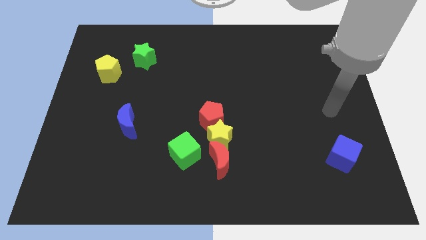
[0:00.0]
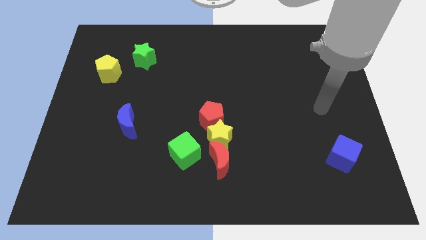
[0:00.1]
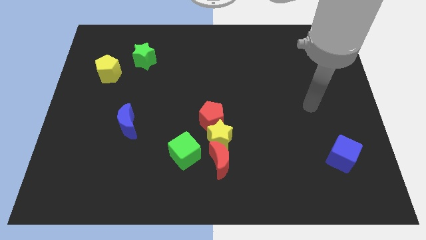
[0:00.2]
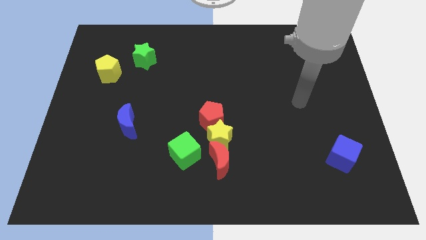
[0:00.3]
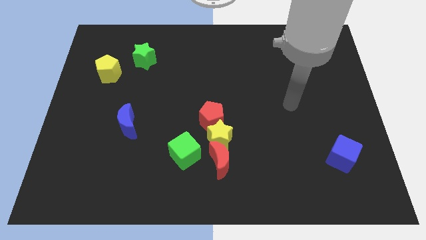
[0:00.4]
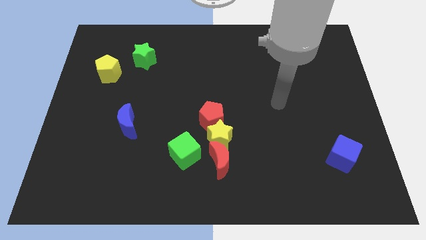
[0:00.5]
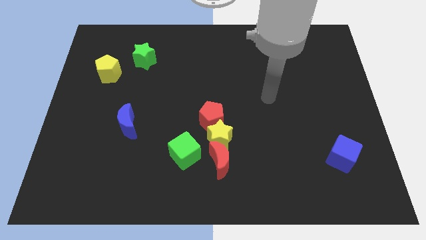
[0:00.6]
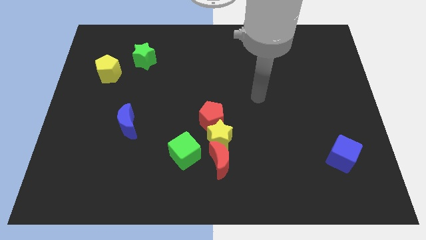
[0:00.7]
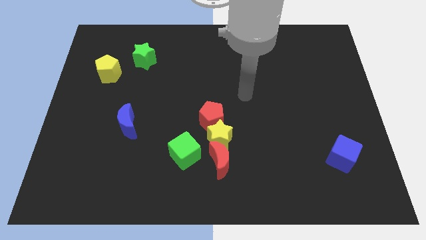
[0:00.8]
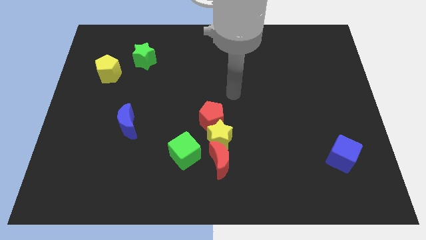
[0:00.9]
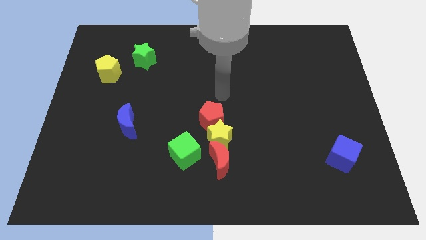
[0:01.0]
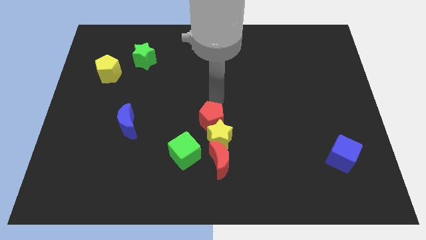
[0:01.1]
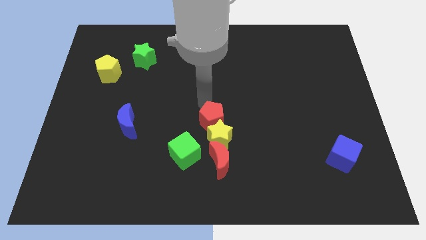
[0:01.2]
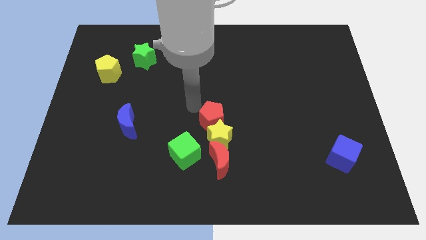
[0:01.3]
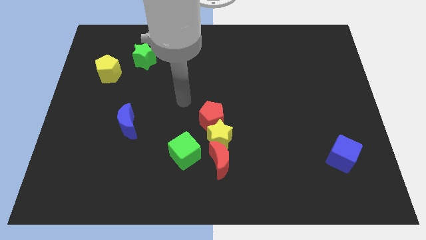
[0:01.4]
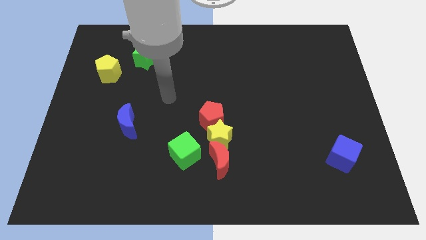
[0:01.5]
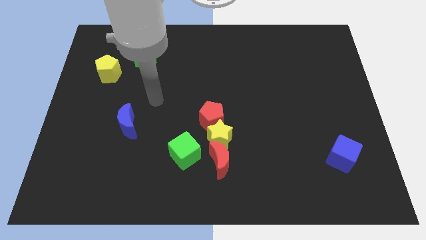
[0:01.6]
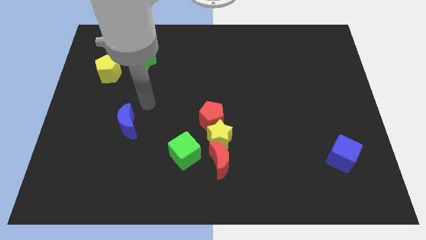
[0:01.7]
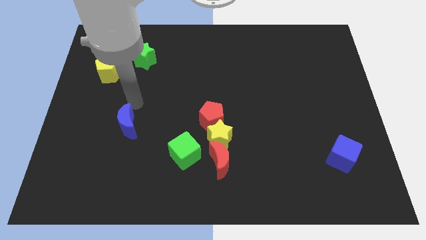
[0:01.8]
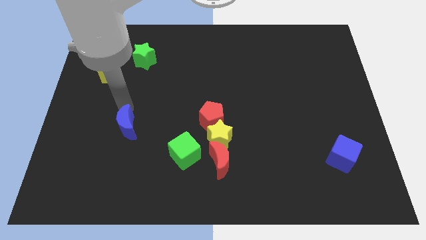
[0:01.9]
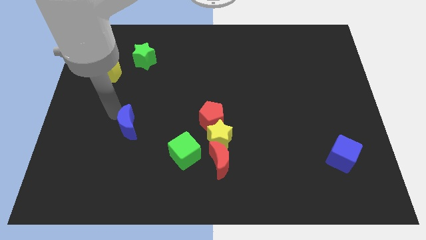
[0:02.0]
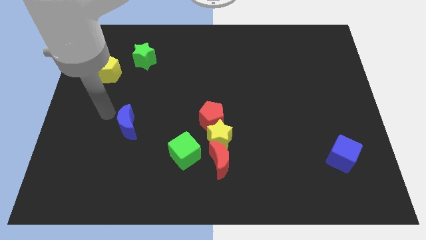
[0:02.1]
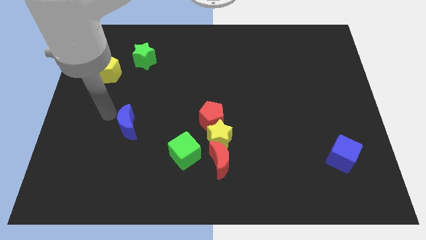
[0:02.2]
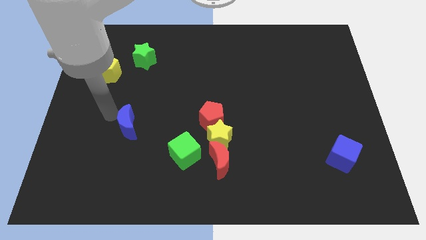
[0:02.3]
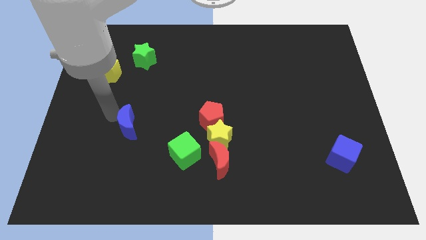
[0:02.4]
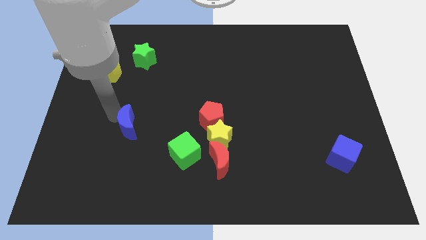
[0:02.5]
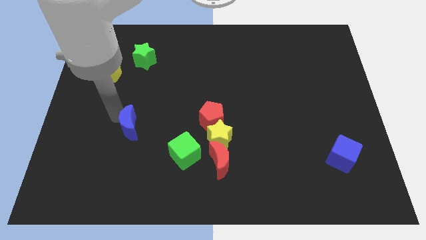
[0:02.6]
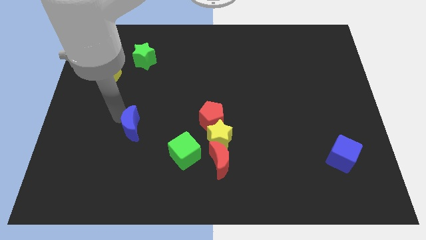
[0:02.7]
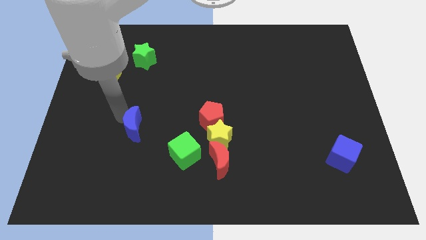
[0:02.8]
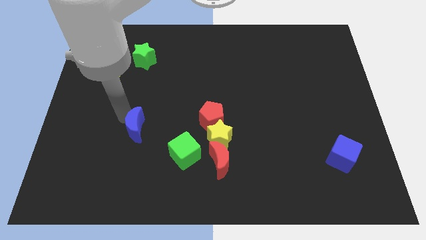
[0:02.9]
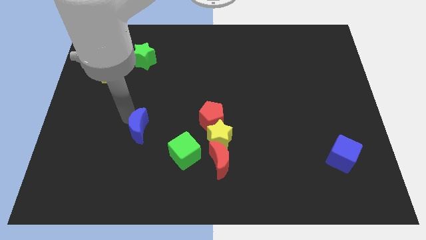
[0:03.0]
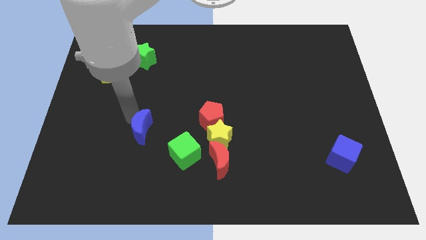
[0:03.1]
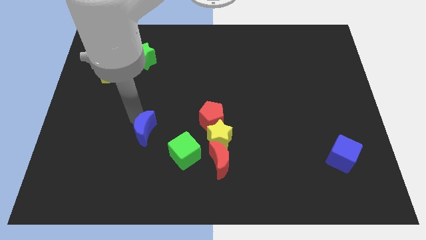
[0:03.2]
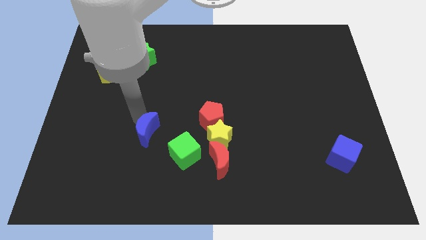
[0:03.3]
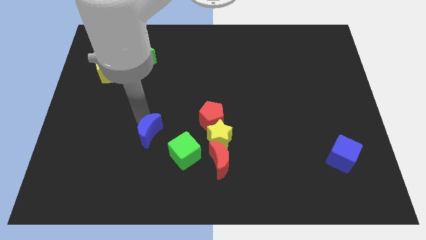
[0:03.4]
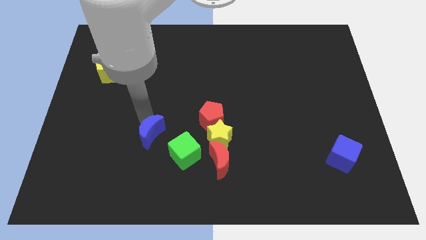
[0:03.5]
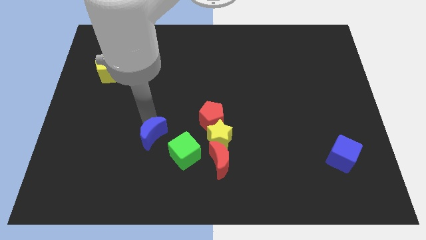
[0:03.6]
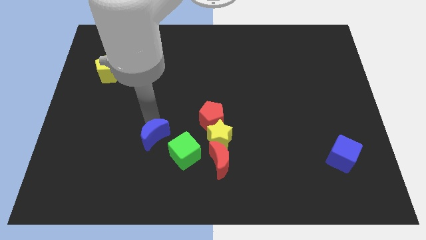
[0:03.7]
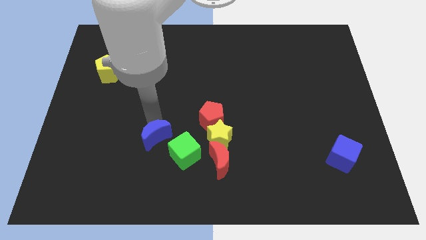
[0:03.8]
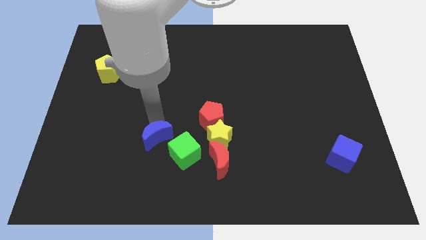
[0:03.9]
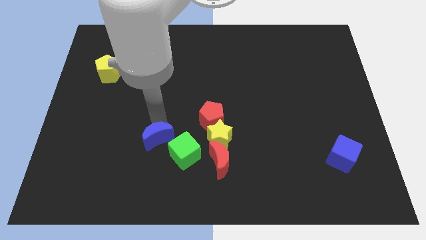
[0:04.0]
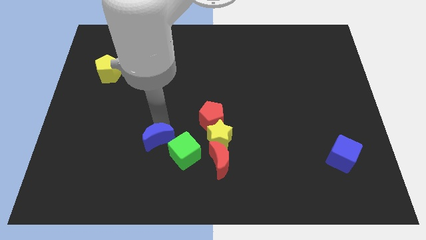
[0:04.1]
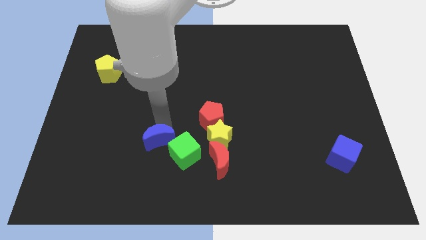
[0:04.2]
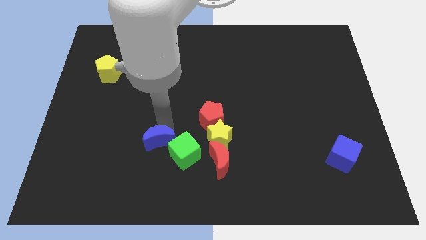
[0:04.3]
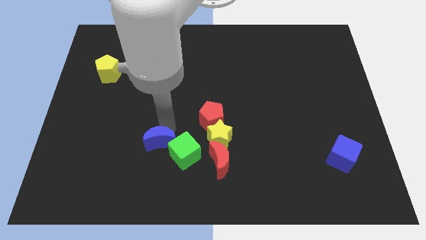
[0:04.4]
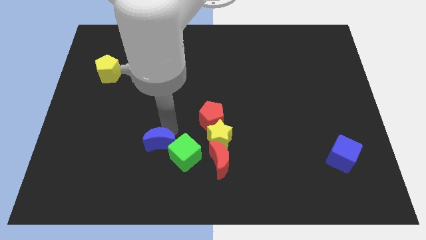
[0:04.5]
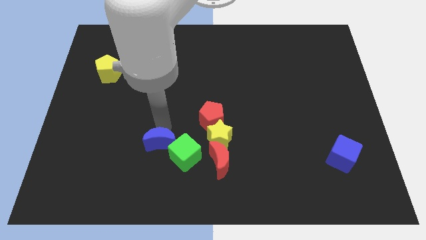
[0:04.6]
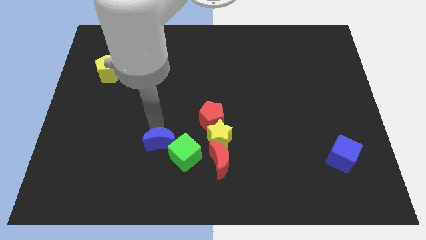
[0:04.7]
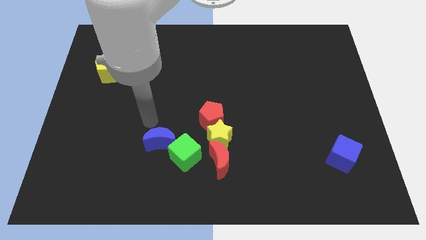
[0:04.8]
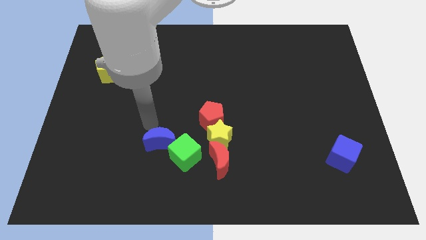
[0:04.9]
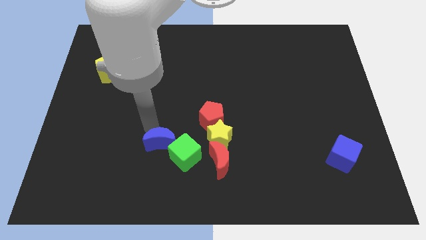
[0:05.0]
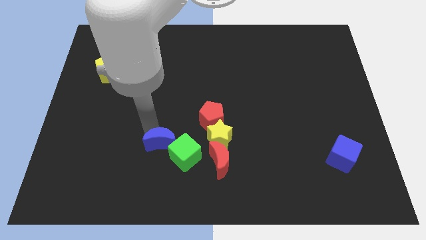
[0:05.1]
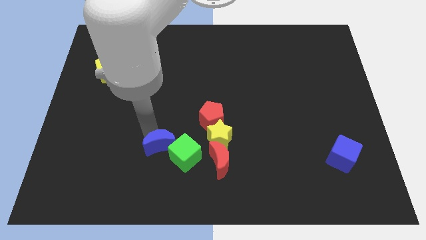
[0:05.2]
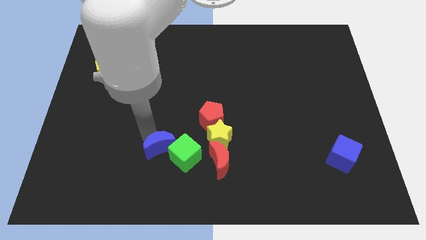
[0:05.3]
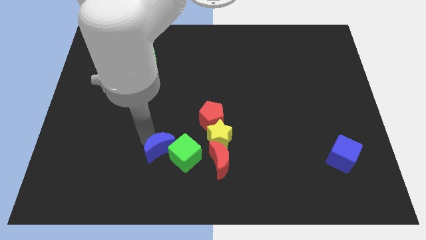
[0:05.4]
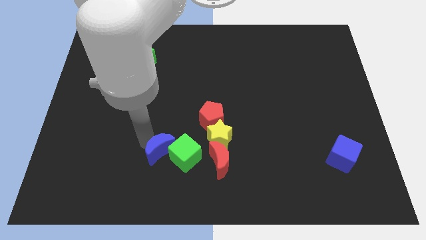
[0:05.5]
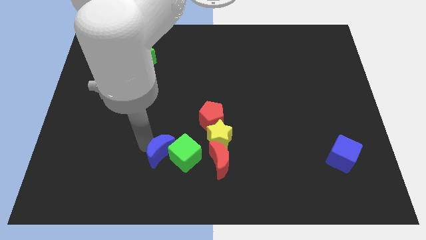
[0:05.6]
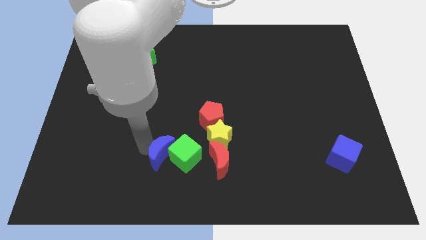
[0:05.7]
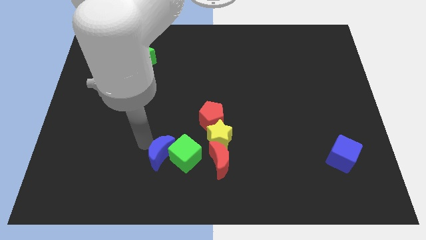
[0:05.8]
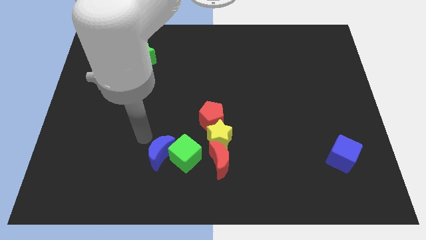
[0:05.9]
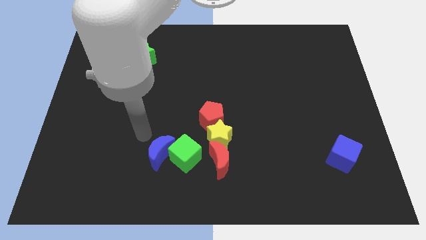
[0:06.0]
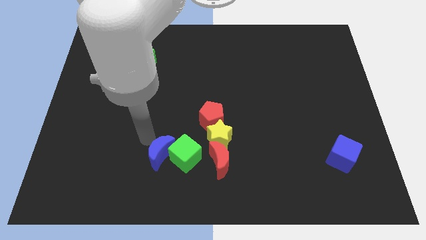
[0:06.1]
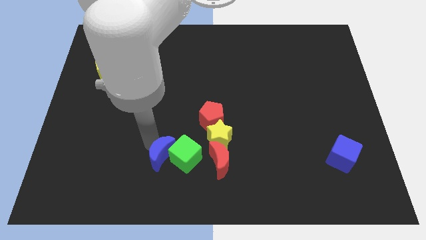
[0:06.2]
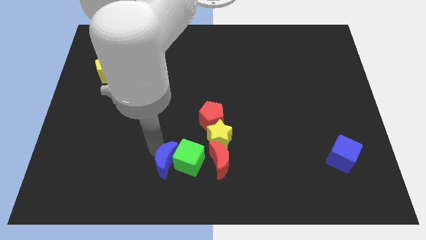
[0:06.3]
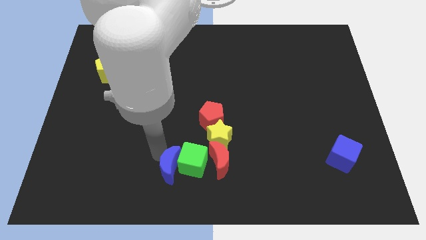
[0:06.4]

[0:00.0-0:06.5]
put the blue moon to the bottom left of the yellow star
